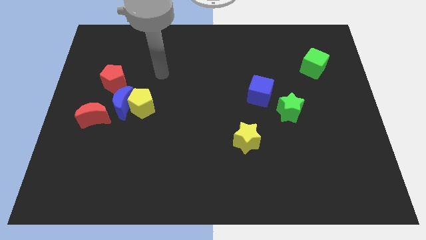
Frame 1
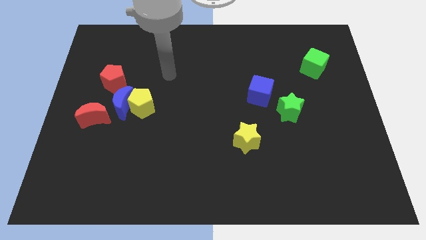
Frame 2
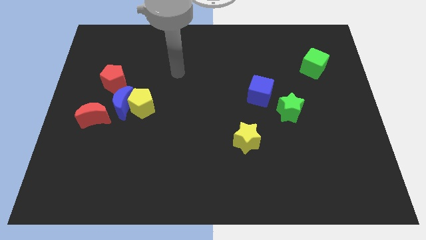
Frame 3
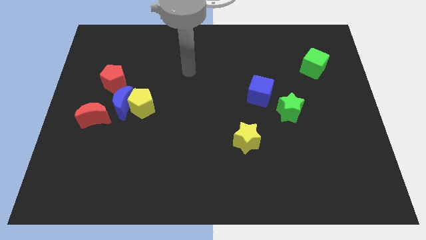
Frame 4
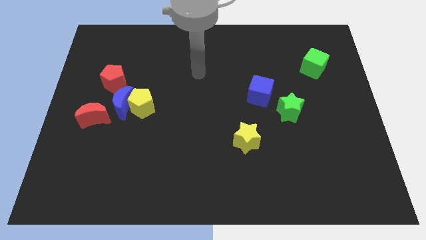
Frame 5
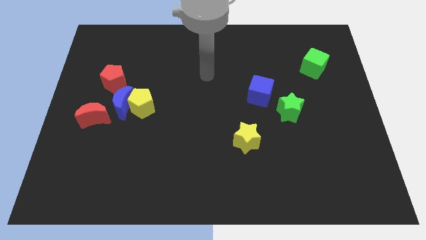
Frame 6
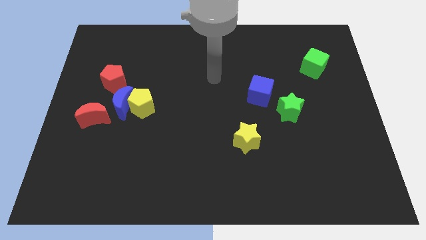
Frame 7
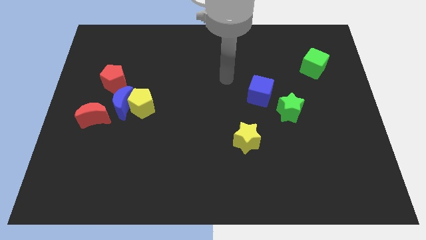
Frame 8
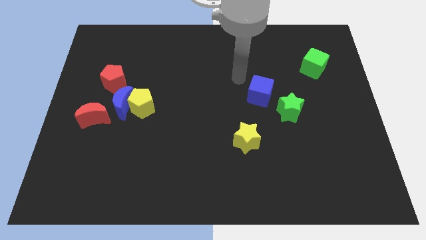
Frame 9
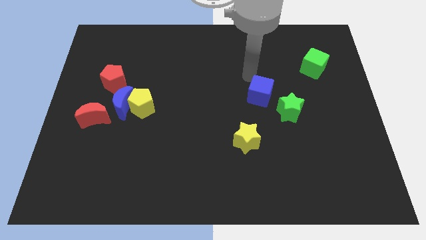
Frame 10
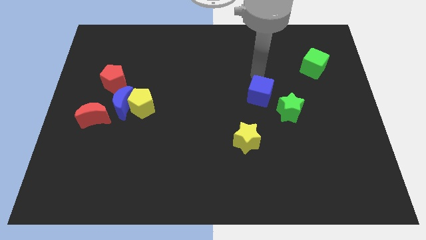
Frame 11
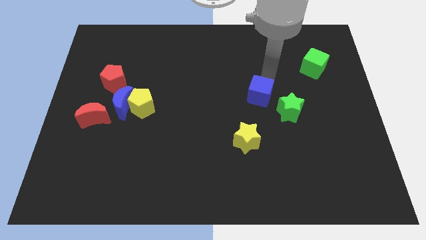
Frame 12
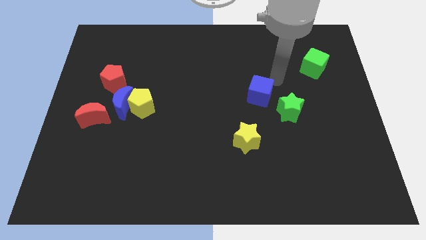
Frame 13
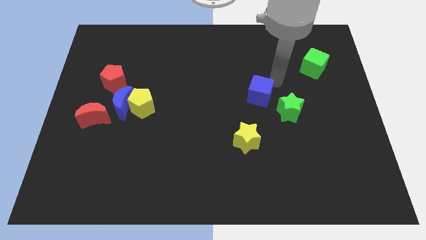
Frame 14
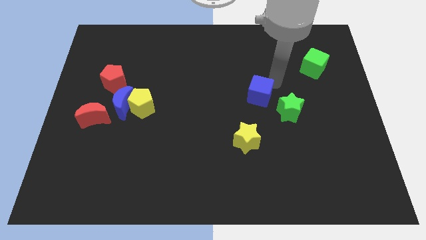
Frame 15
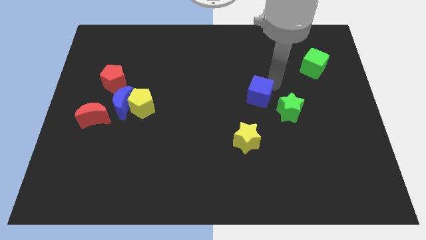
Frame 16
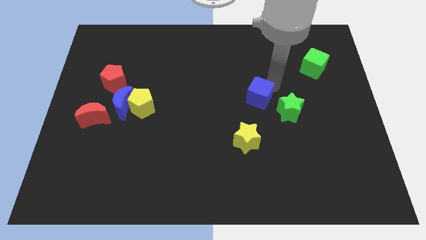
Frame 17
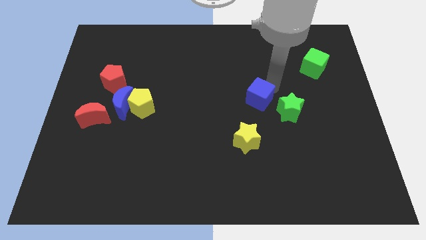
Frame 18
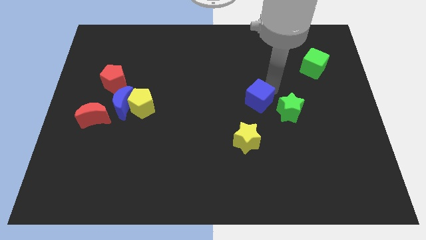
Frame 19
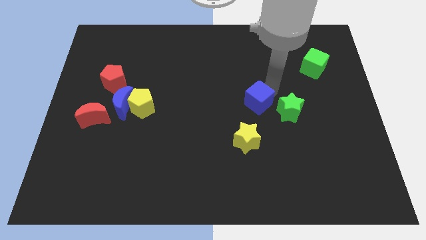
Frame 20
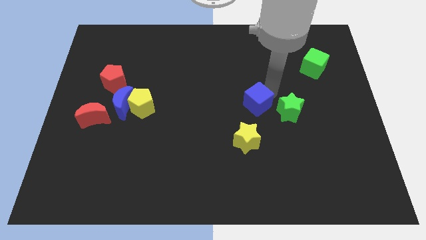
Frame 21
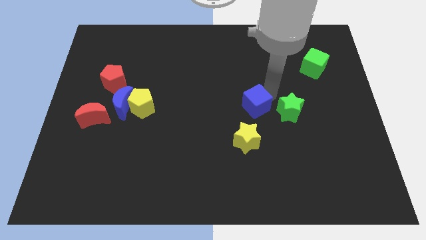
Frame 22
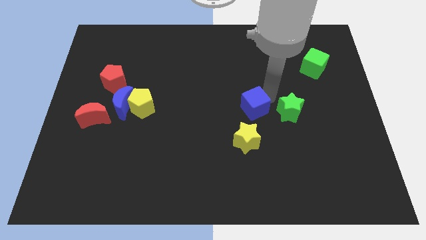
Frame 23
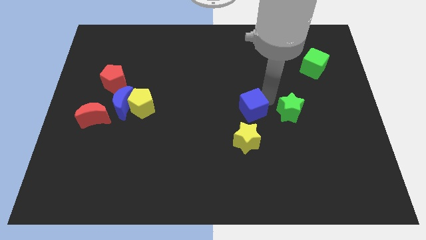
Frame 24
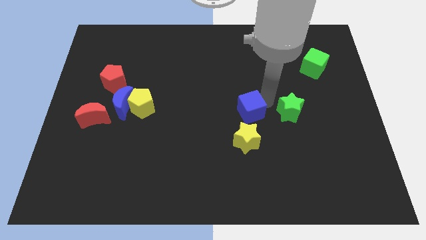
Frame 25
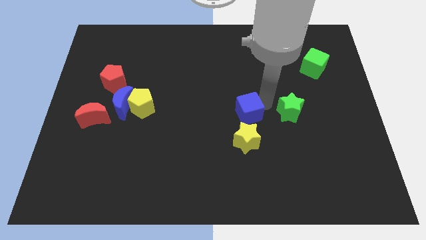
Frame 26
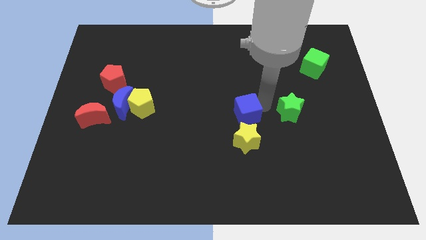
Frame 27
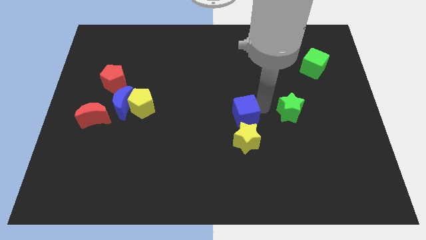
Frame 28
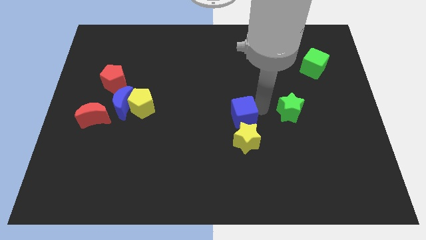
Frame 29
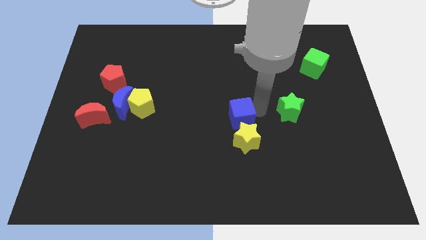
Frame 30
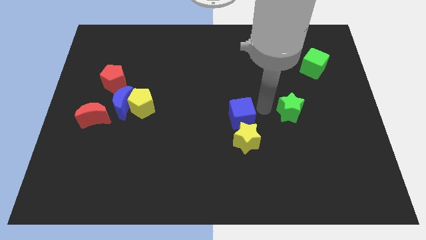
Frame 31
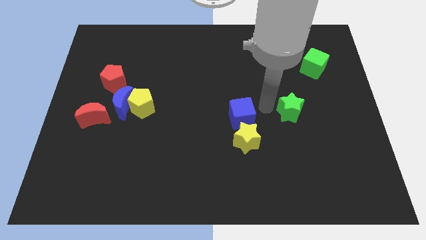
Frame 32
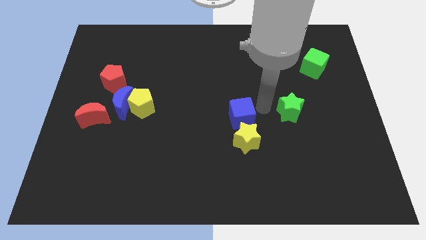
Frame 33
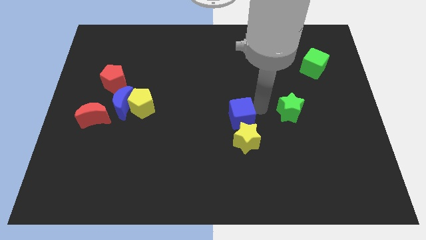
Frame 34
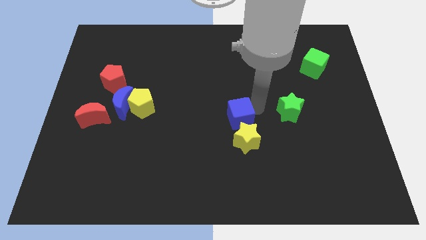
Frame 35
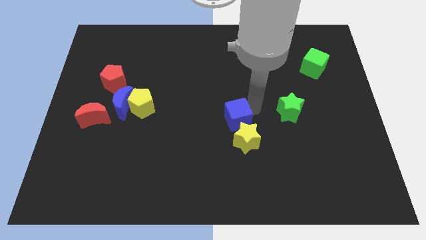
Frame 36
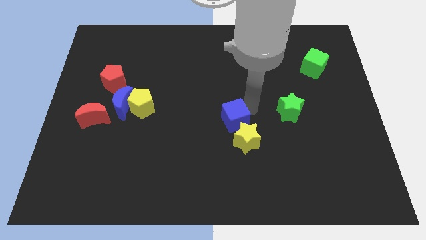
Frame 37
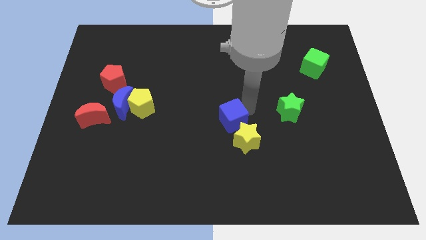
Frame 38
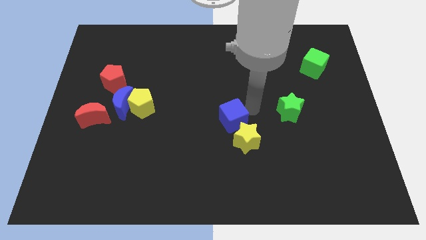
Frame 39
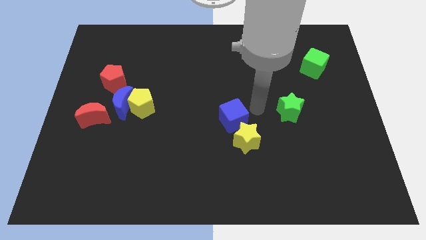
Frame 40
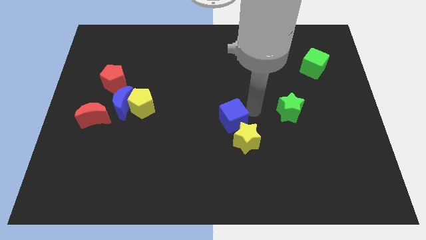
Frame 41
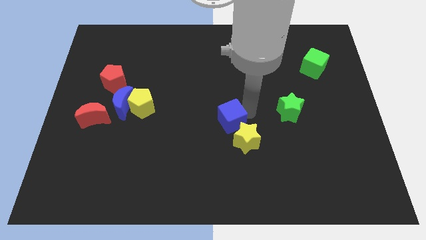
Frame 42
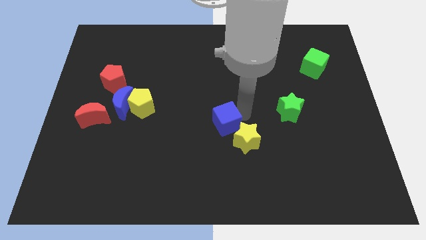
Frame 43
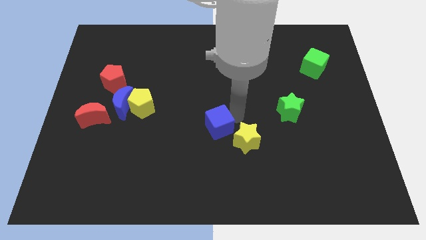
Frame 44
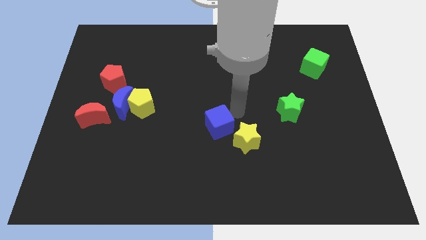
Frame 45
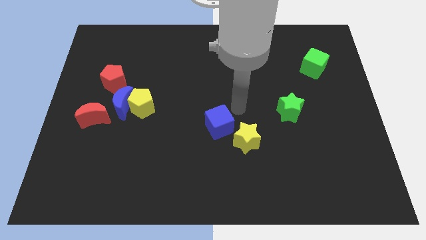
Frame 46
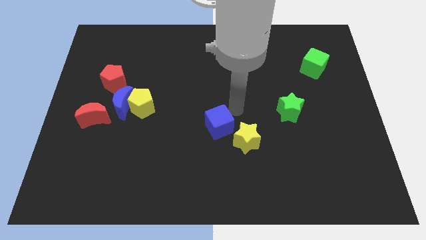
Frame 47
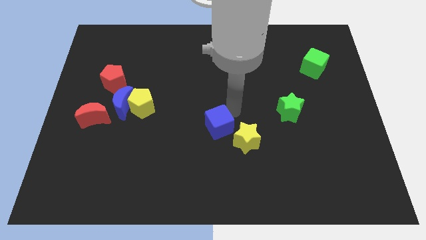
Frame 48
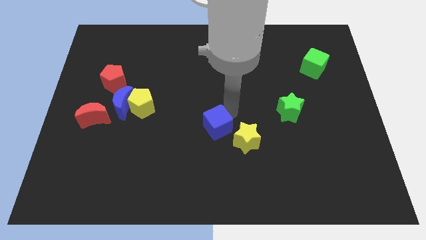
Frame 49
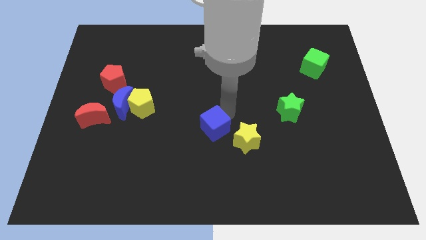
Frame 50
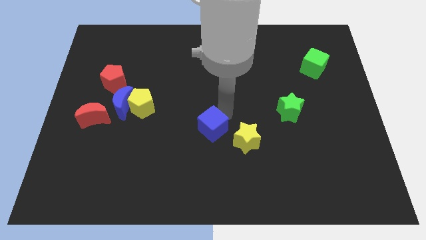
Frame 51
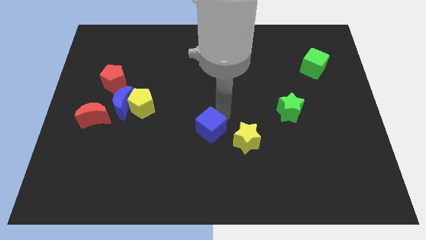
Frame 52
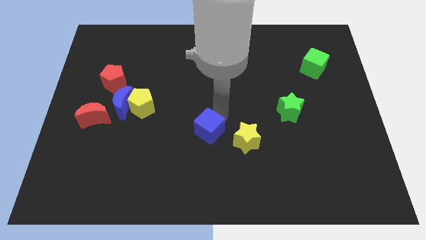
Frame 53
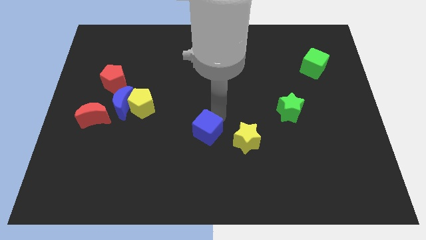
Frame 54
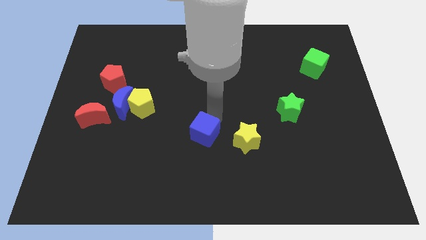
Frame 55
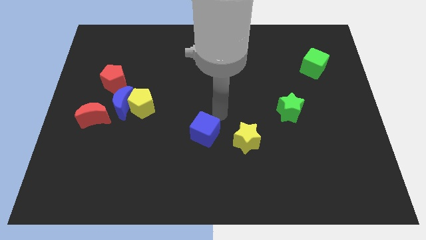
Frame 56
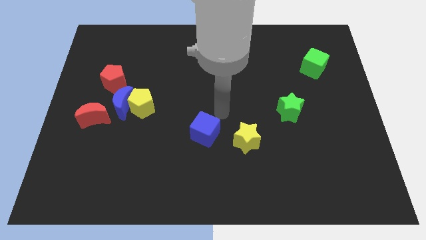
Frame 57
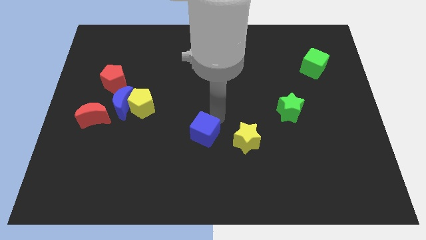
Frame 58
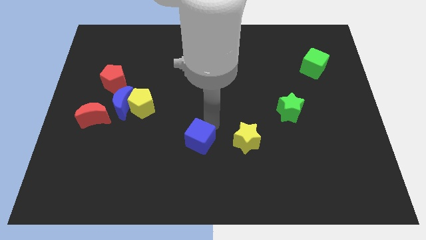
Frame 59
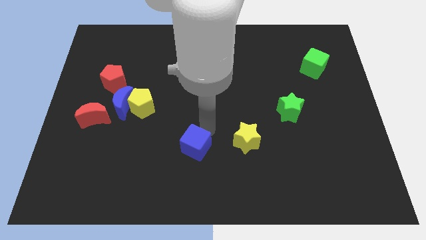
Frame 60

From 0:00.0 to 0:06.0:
push the blue cube down and to the left diagonally

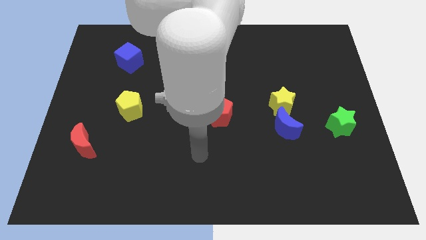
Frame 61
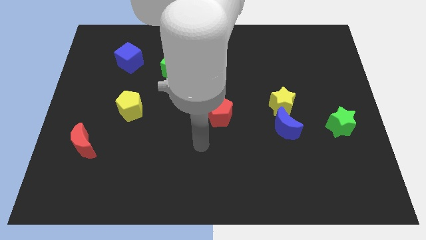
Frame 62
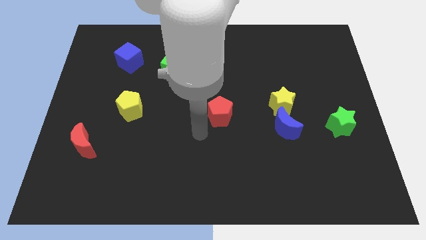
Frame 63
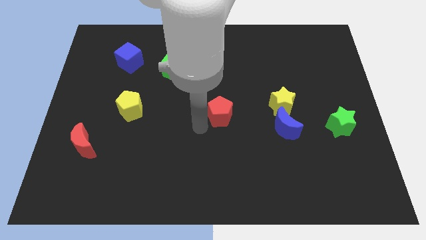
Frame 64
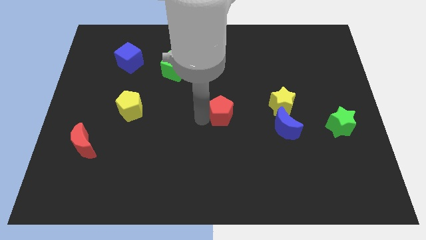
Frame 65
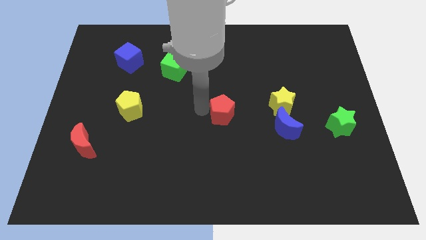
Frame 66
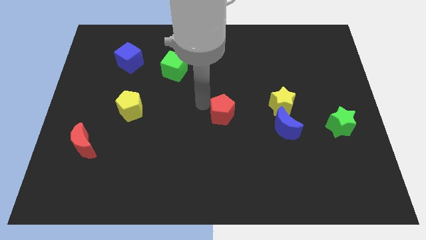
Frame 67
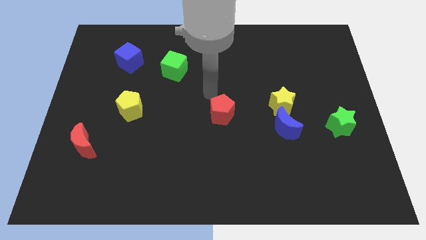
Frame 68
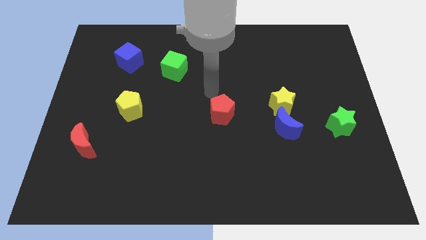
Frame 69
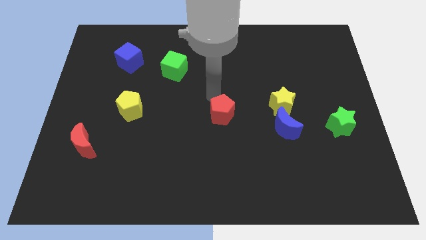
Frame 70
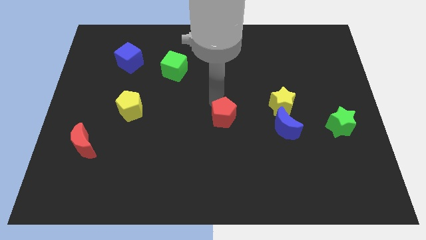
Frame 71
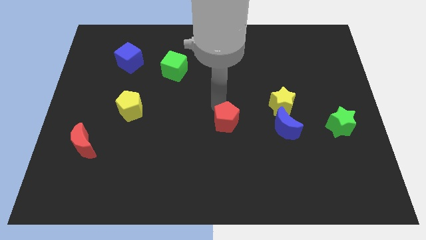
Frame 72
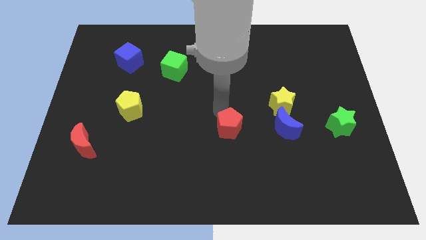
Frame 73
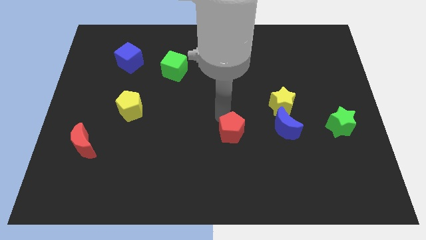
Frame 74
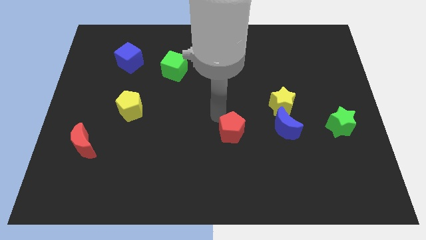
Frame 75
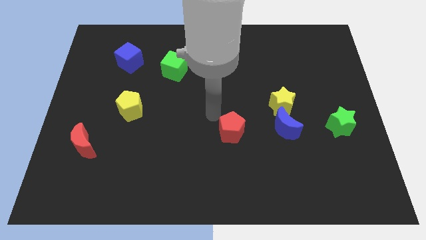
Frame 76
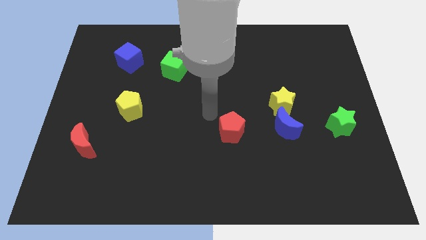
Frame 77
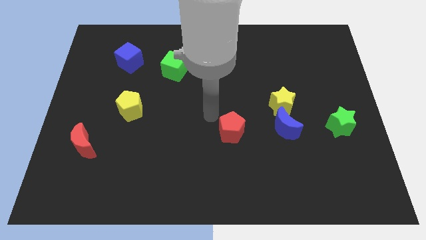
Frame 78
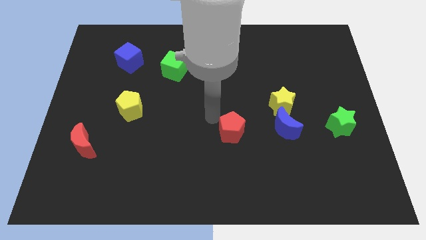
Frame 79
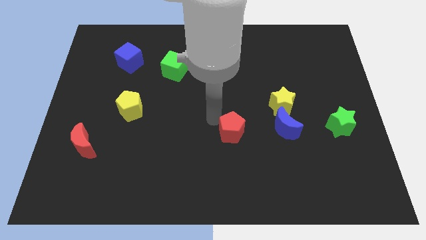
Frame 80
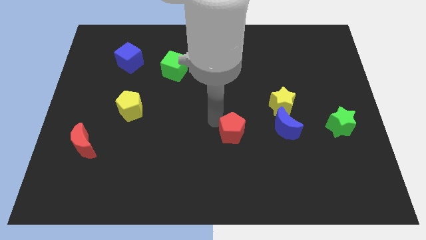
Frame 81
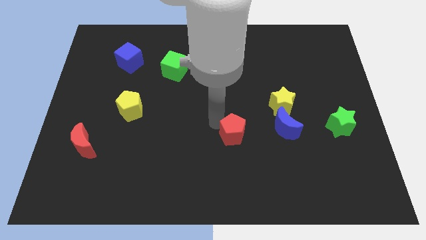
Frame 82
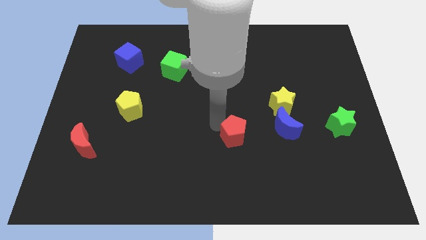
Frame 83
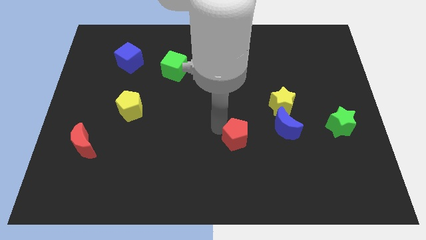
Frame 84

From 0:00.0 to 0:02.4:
slide the red pentagon diagonally downwards and right somewhat
